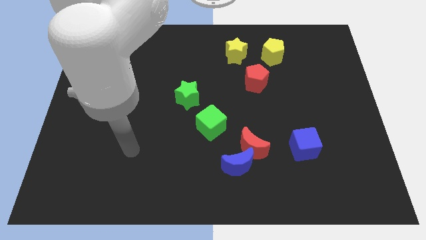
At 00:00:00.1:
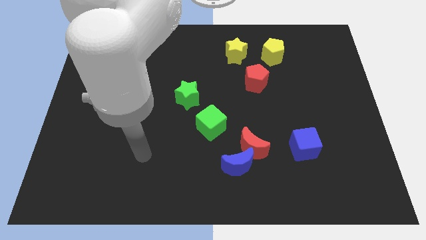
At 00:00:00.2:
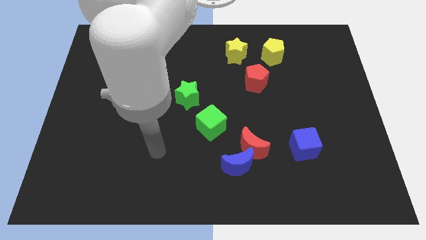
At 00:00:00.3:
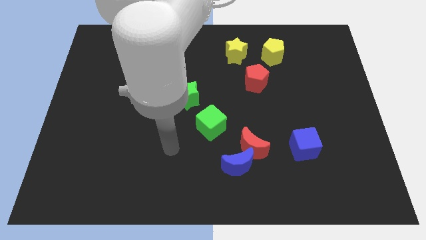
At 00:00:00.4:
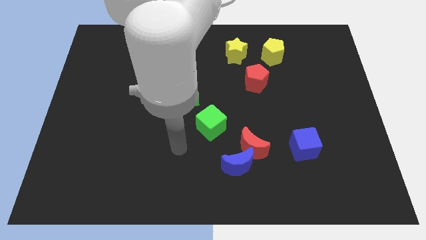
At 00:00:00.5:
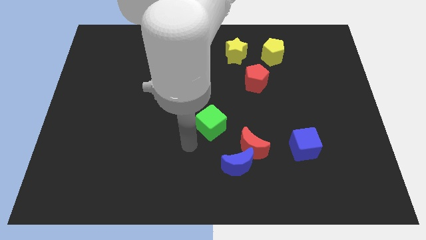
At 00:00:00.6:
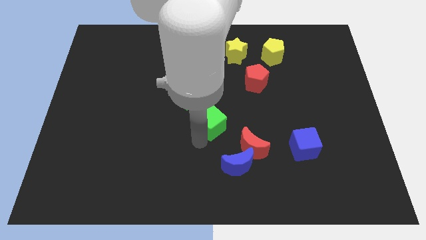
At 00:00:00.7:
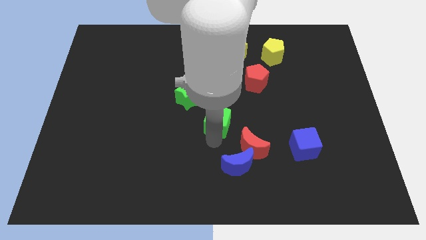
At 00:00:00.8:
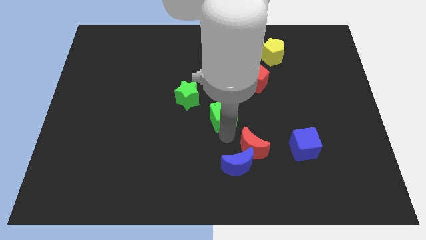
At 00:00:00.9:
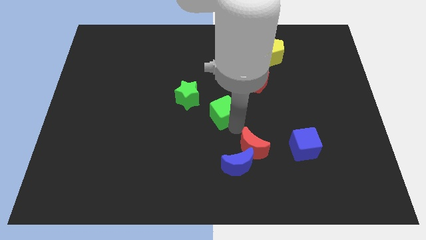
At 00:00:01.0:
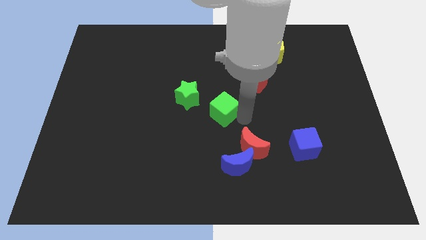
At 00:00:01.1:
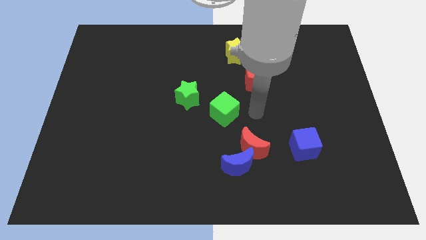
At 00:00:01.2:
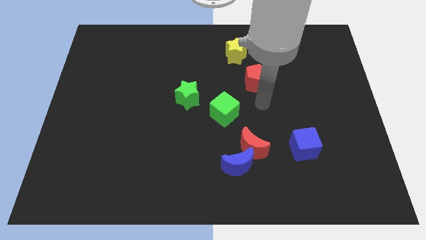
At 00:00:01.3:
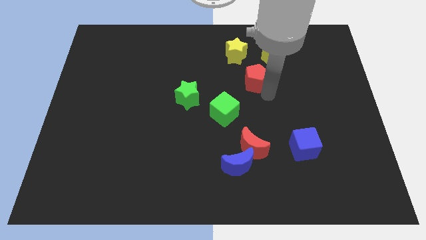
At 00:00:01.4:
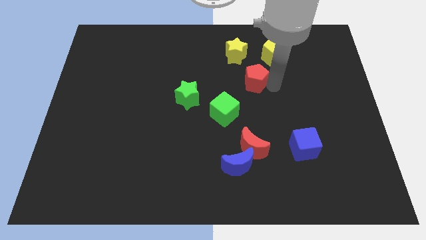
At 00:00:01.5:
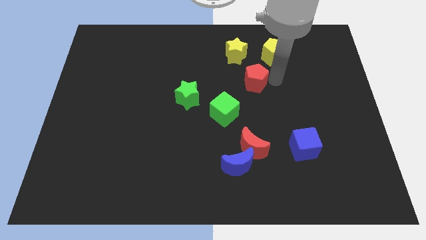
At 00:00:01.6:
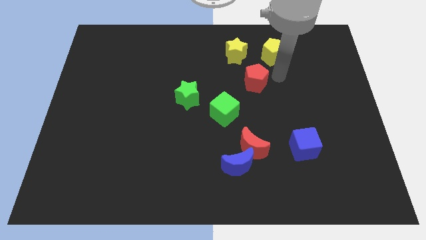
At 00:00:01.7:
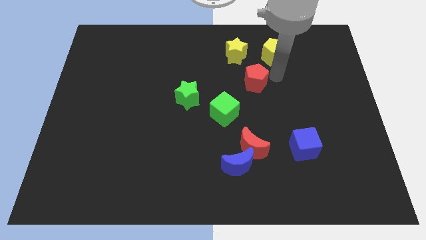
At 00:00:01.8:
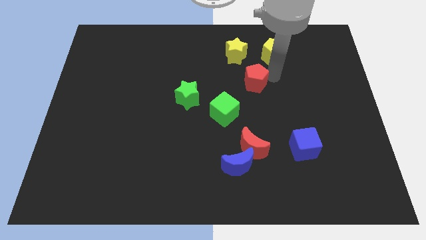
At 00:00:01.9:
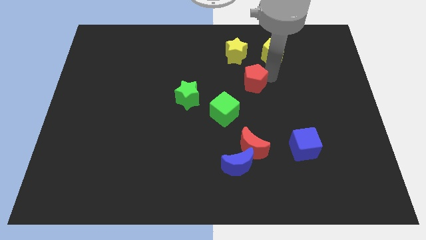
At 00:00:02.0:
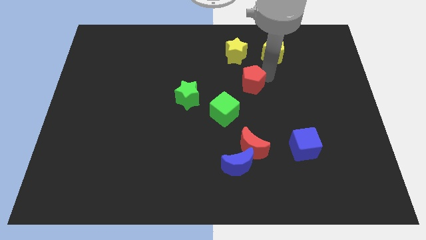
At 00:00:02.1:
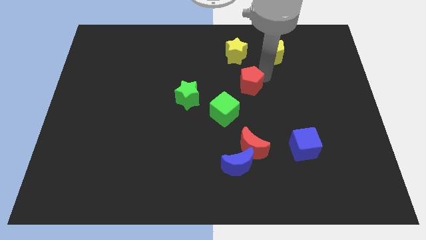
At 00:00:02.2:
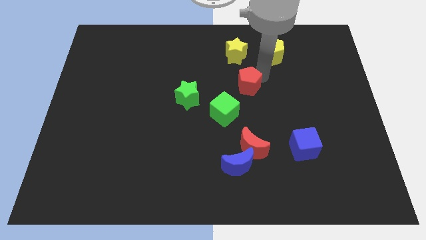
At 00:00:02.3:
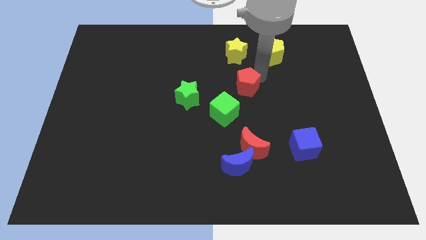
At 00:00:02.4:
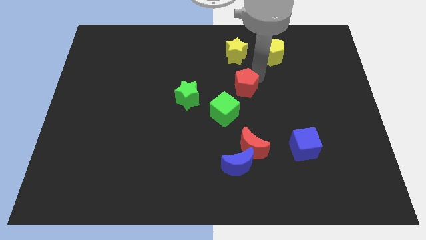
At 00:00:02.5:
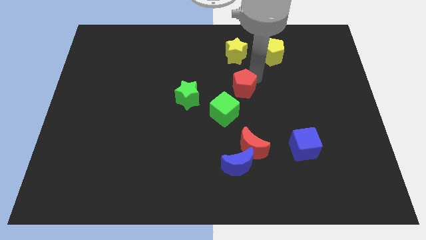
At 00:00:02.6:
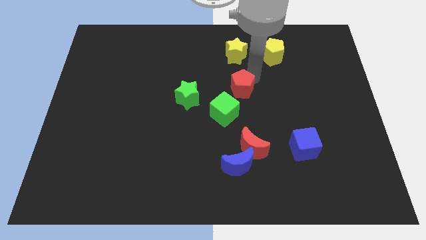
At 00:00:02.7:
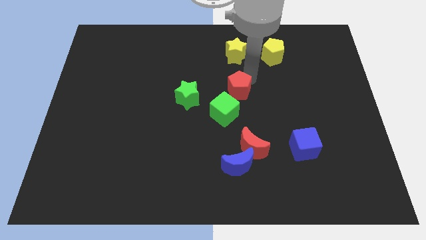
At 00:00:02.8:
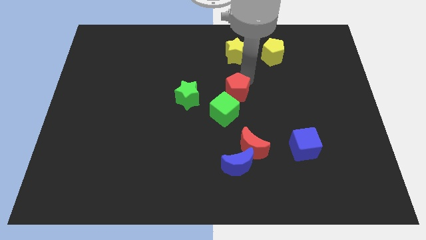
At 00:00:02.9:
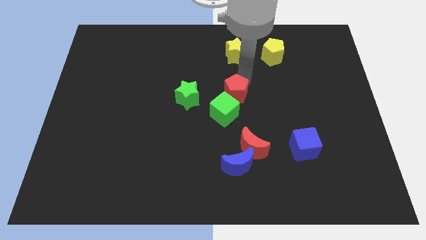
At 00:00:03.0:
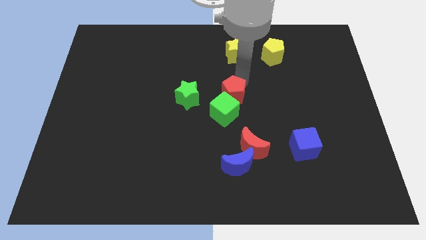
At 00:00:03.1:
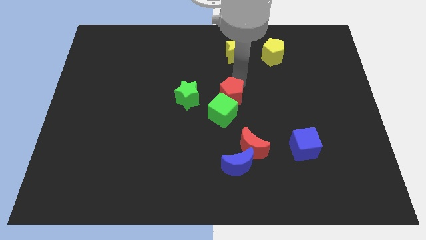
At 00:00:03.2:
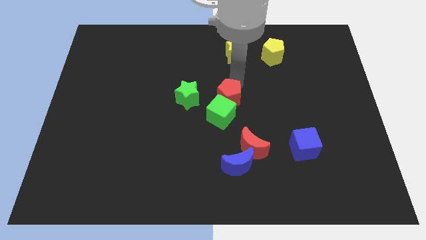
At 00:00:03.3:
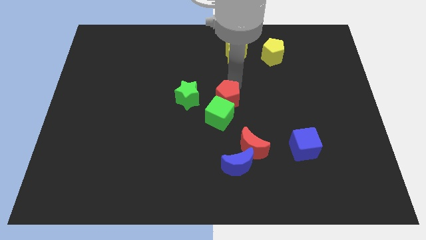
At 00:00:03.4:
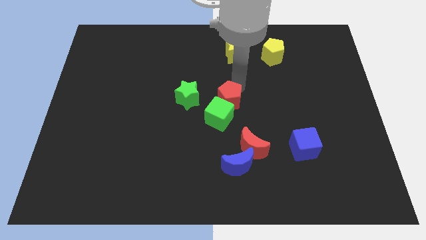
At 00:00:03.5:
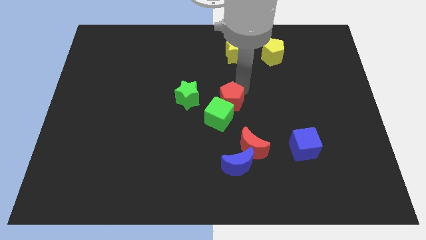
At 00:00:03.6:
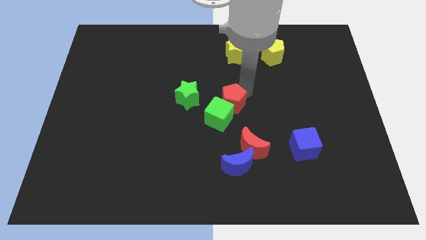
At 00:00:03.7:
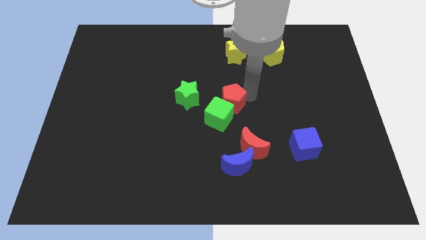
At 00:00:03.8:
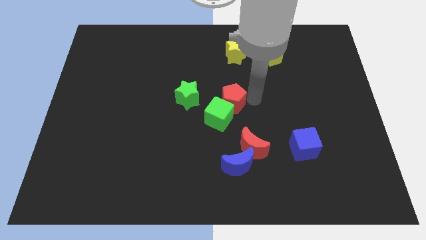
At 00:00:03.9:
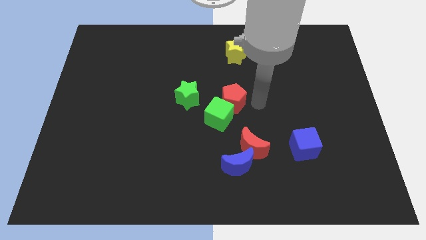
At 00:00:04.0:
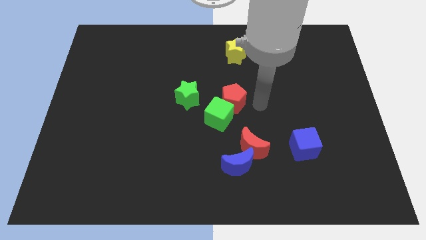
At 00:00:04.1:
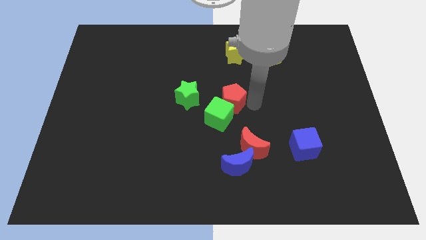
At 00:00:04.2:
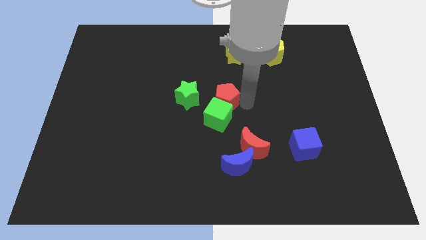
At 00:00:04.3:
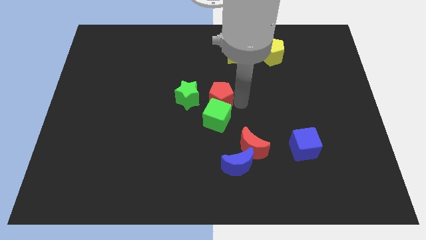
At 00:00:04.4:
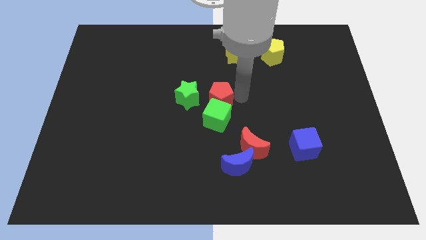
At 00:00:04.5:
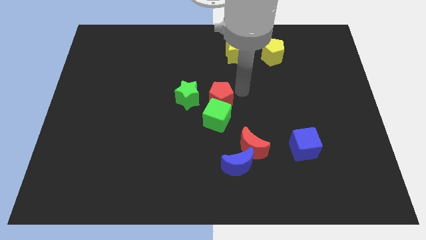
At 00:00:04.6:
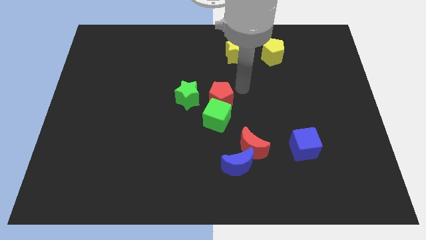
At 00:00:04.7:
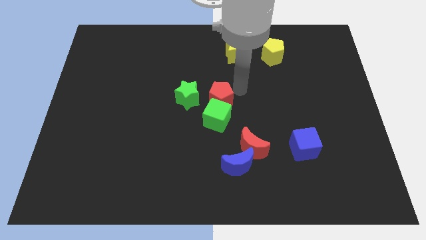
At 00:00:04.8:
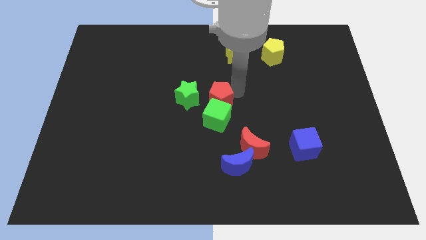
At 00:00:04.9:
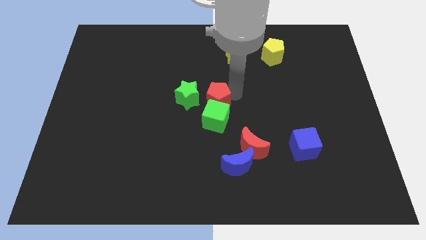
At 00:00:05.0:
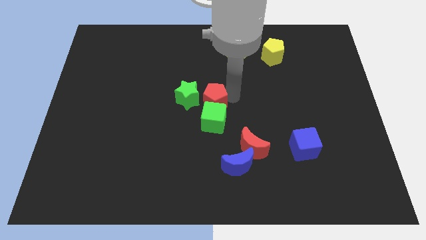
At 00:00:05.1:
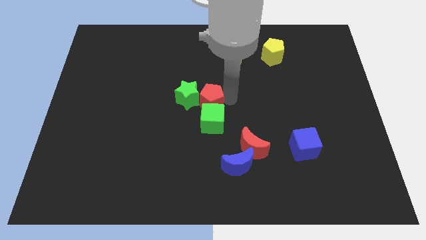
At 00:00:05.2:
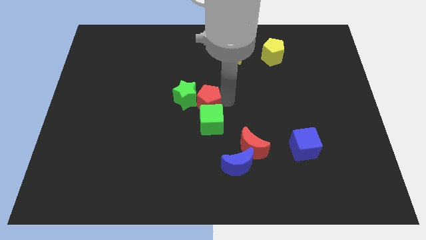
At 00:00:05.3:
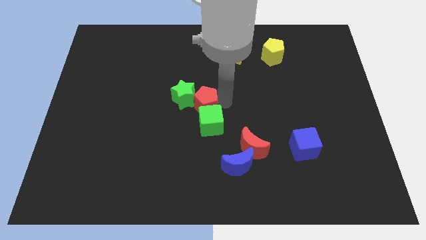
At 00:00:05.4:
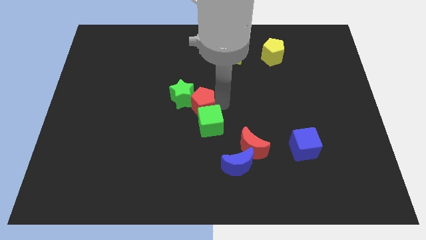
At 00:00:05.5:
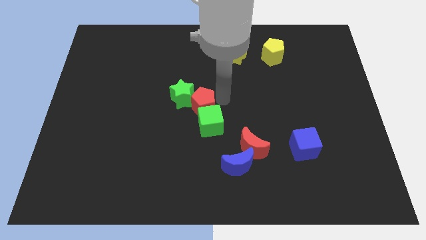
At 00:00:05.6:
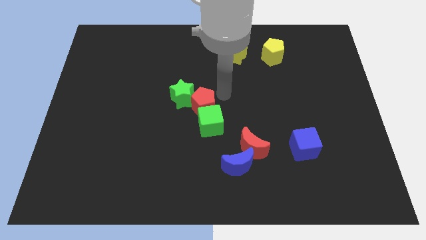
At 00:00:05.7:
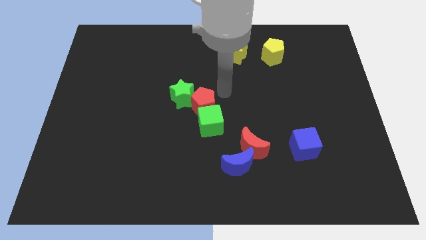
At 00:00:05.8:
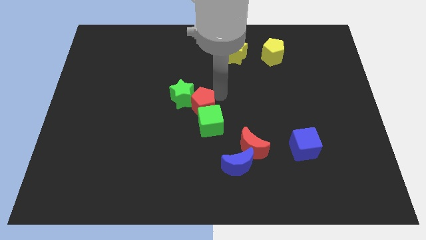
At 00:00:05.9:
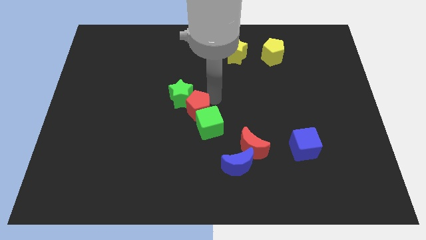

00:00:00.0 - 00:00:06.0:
put the red pentagon to the bottom of the green star

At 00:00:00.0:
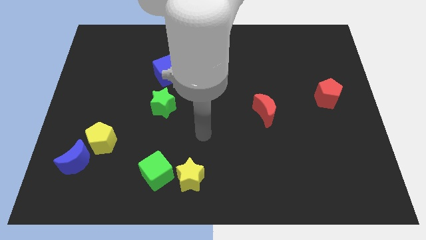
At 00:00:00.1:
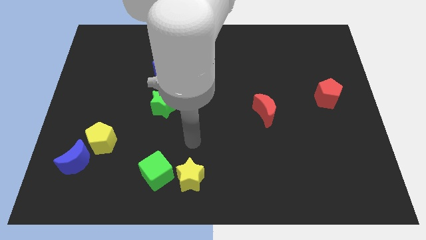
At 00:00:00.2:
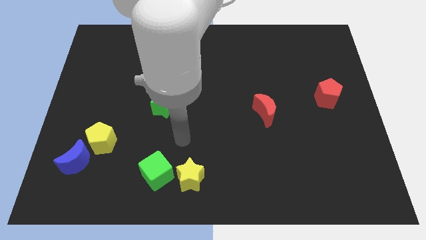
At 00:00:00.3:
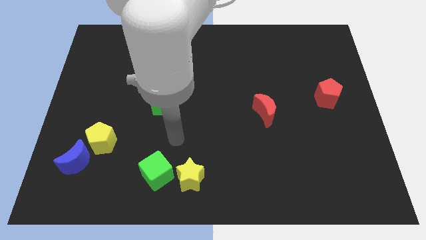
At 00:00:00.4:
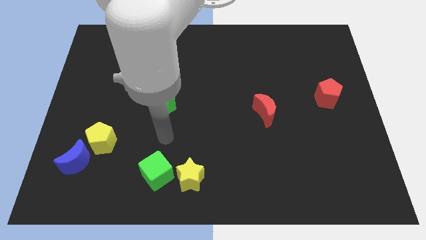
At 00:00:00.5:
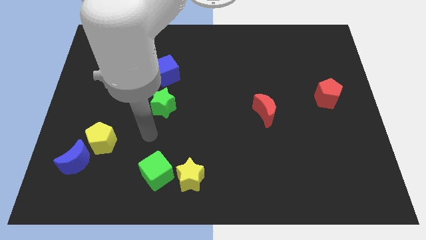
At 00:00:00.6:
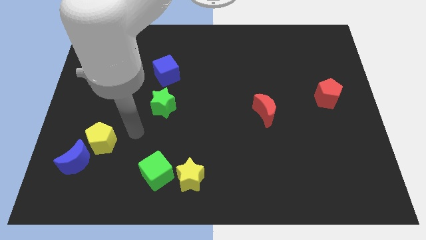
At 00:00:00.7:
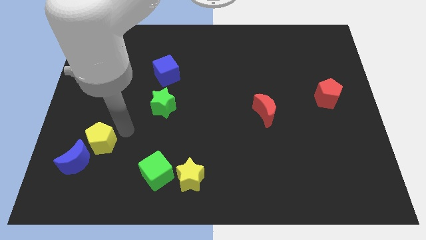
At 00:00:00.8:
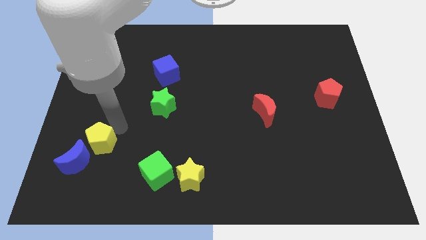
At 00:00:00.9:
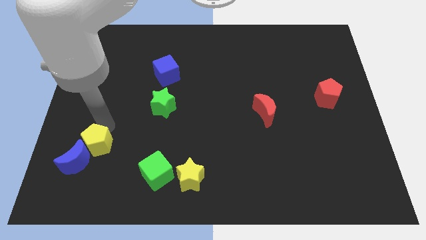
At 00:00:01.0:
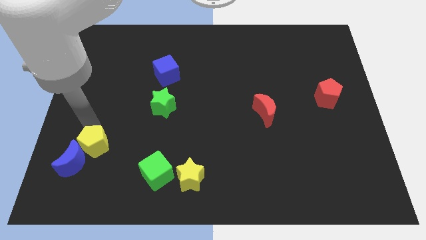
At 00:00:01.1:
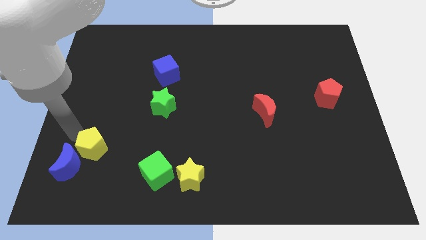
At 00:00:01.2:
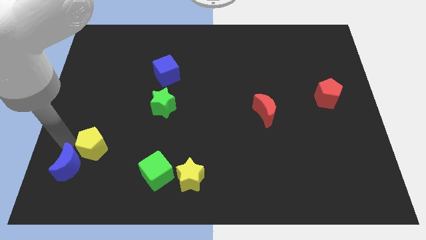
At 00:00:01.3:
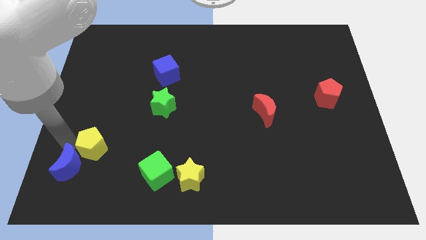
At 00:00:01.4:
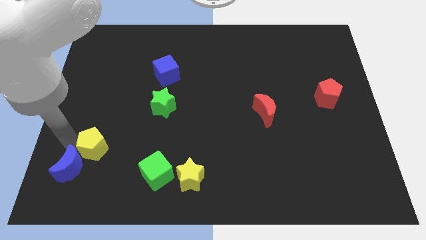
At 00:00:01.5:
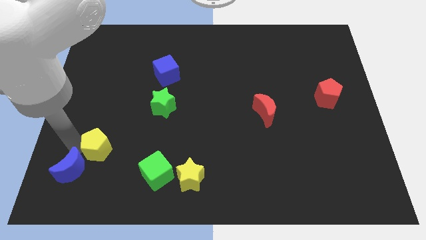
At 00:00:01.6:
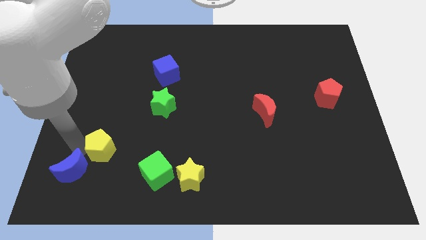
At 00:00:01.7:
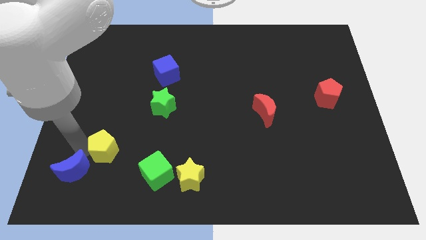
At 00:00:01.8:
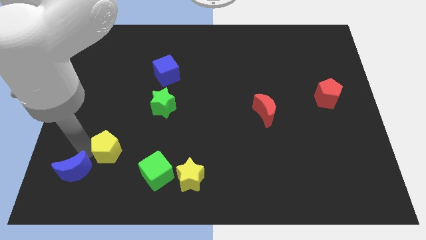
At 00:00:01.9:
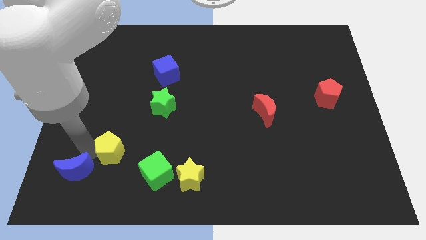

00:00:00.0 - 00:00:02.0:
move the yellow pentagon to the top left of the green cube
